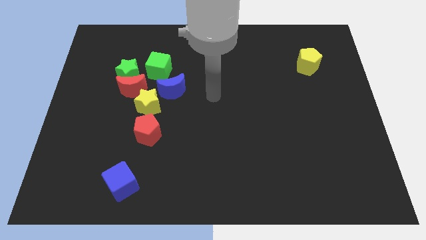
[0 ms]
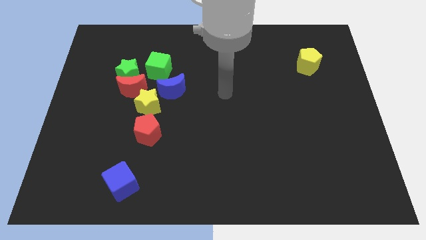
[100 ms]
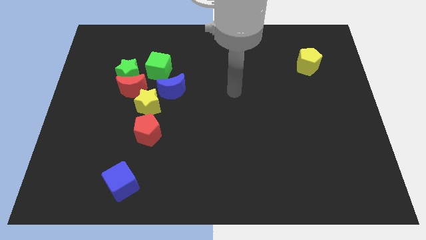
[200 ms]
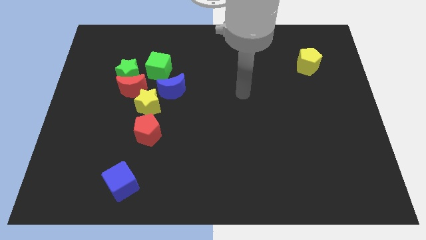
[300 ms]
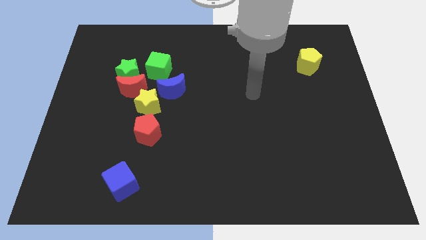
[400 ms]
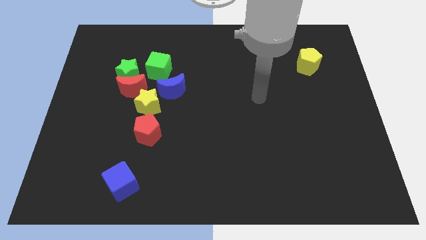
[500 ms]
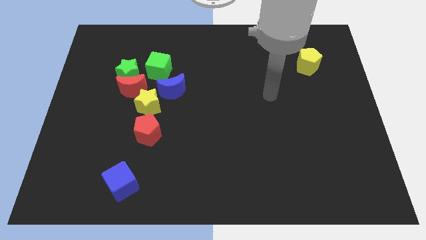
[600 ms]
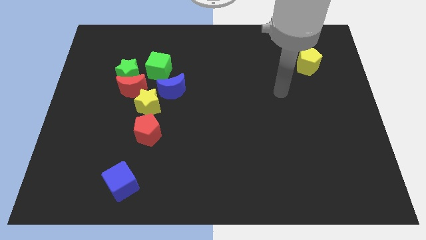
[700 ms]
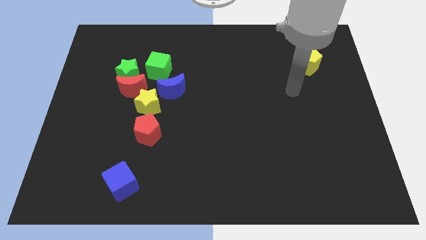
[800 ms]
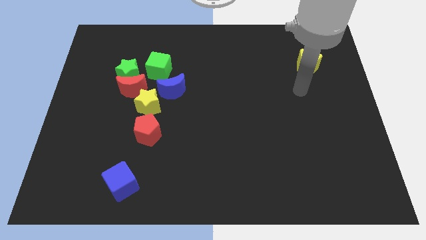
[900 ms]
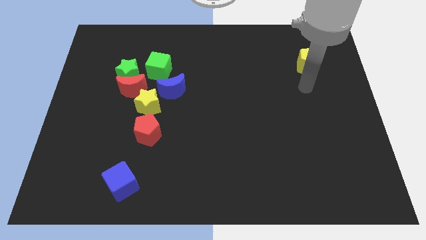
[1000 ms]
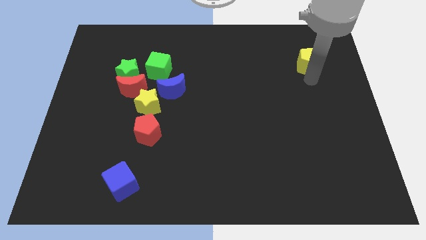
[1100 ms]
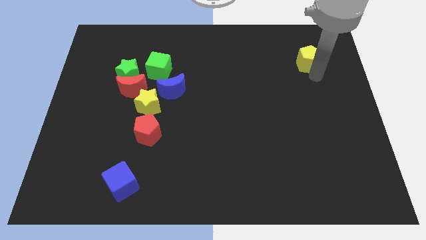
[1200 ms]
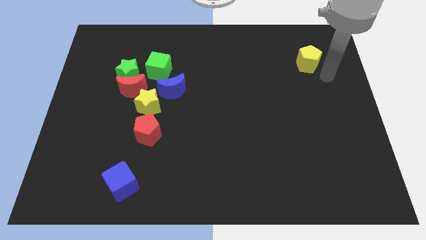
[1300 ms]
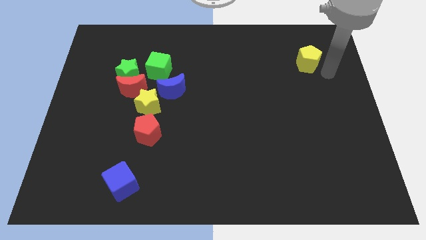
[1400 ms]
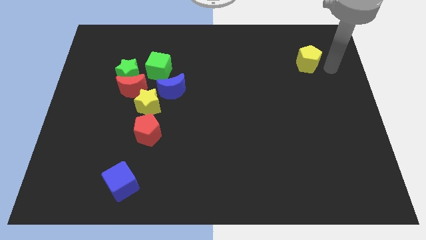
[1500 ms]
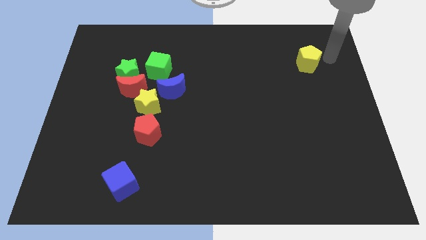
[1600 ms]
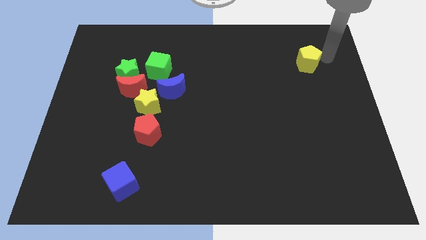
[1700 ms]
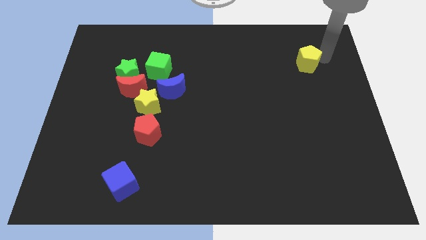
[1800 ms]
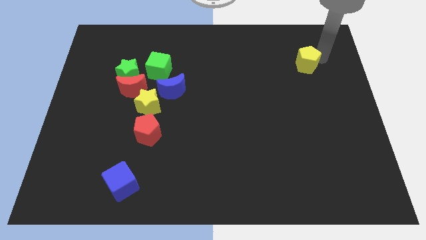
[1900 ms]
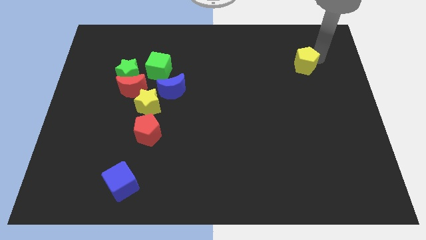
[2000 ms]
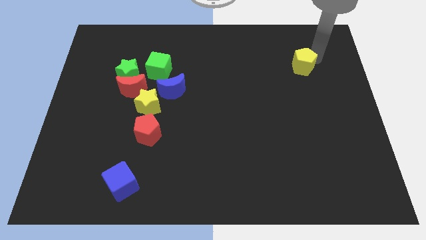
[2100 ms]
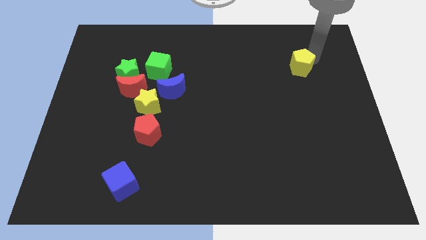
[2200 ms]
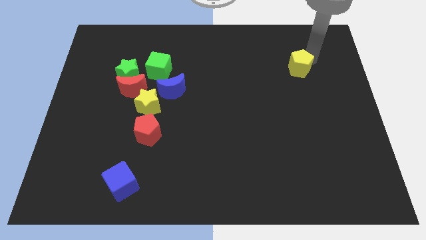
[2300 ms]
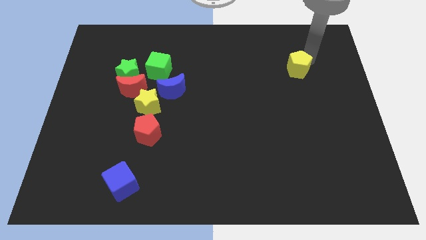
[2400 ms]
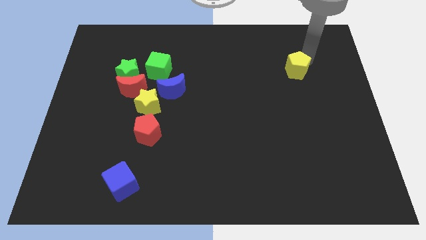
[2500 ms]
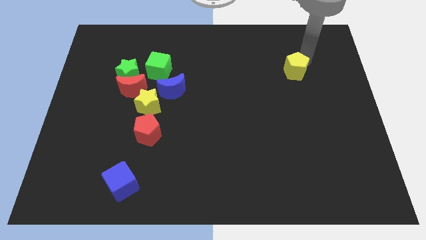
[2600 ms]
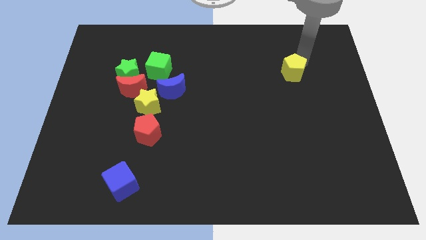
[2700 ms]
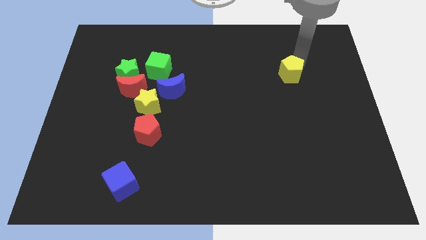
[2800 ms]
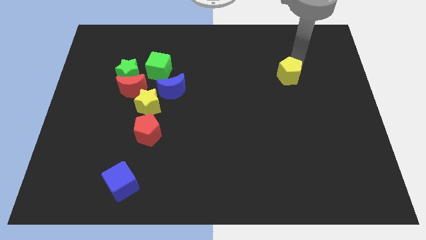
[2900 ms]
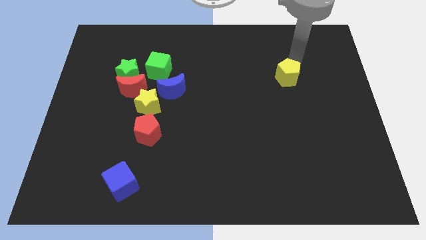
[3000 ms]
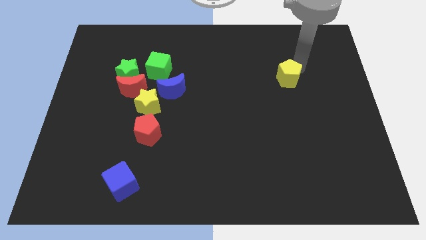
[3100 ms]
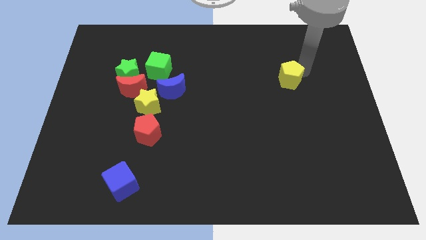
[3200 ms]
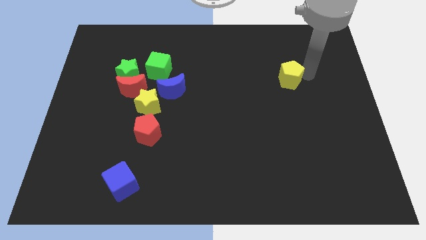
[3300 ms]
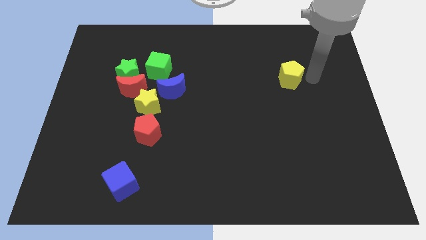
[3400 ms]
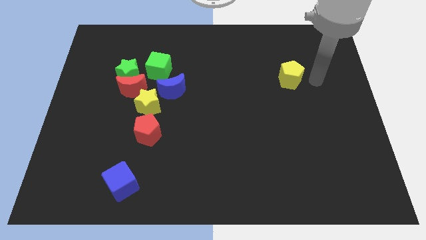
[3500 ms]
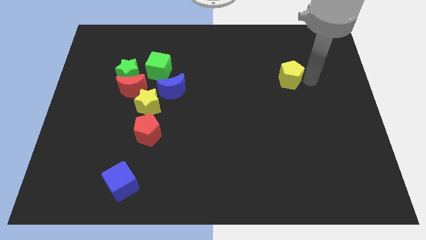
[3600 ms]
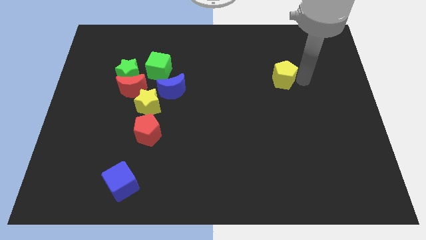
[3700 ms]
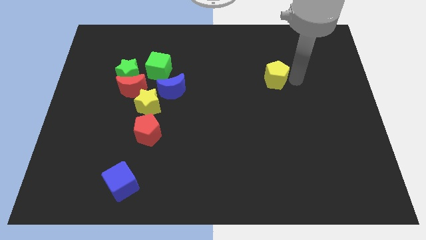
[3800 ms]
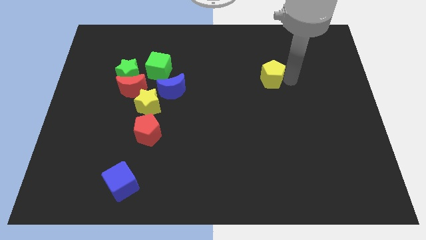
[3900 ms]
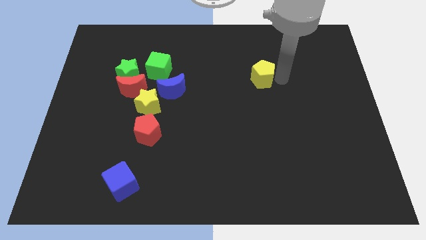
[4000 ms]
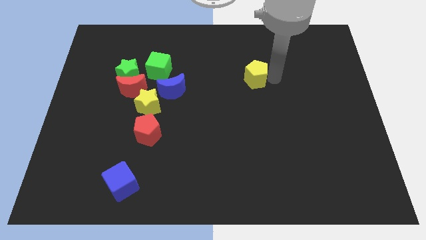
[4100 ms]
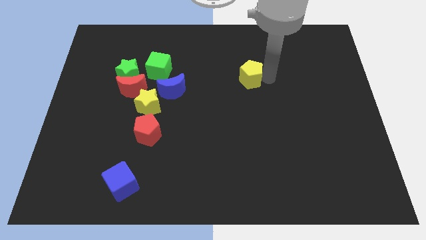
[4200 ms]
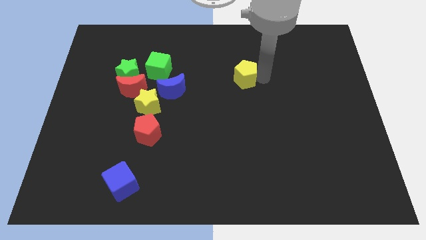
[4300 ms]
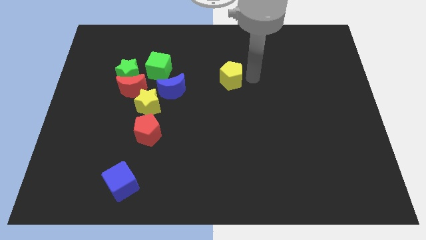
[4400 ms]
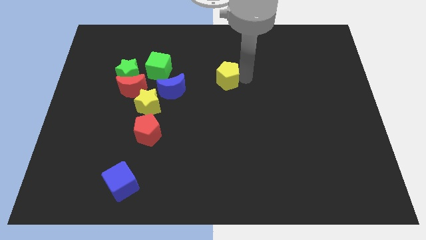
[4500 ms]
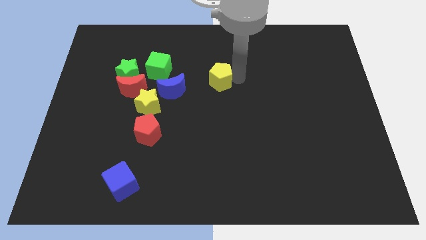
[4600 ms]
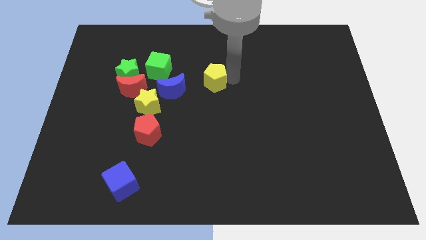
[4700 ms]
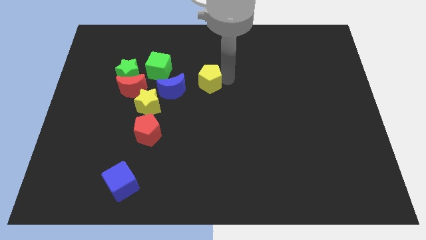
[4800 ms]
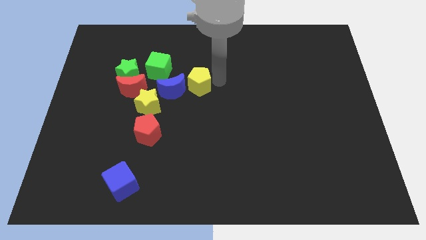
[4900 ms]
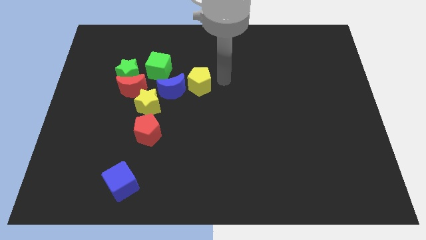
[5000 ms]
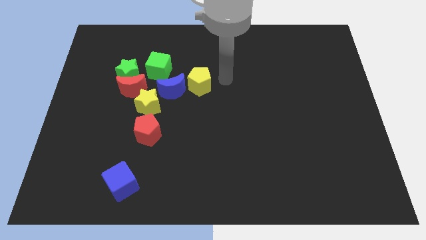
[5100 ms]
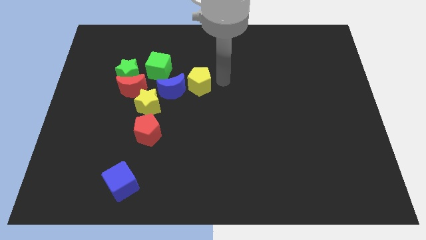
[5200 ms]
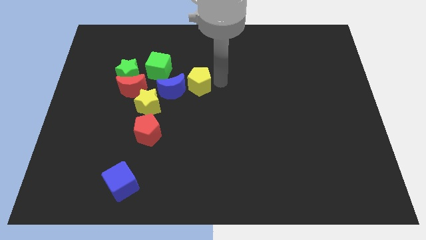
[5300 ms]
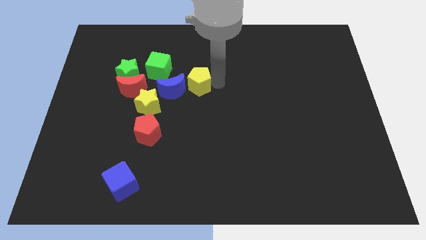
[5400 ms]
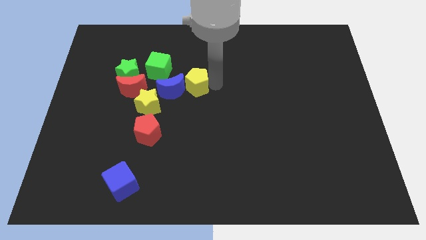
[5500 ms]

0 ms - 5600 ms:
move the yellow pentagon close to the blue moon

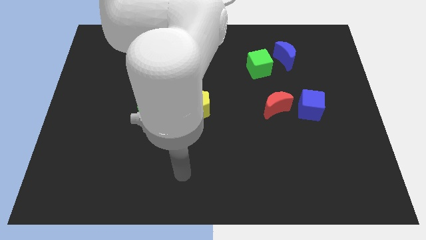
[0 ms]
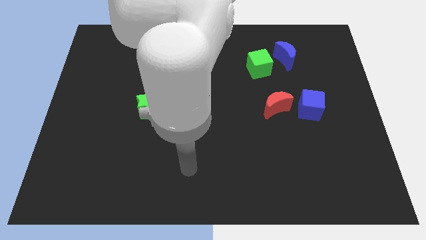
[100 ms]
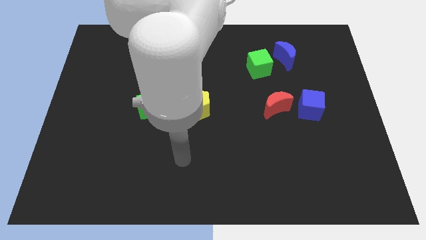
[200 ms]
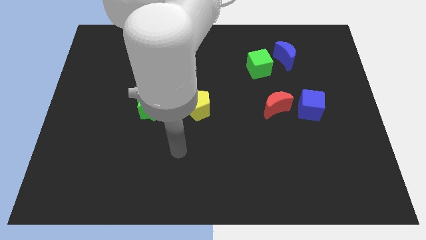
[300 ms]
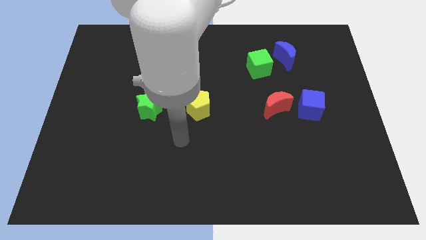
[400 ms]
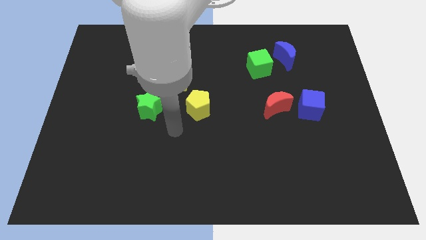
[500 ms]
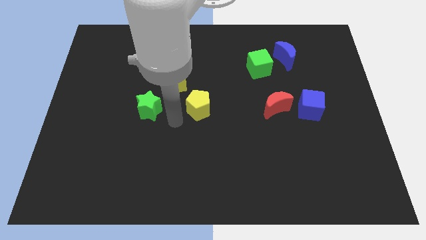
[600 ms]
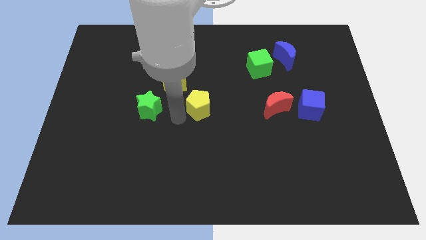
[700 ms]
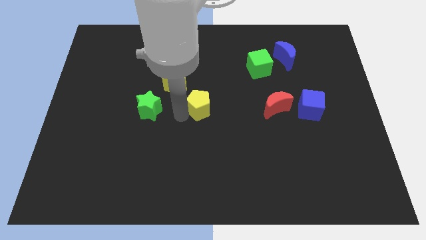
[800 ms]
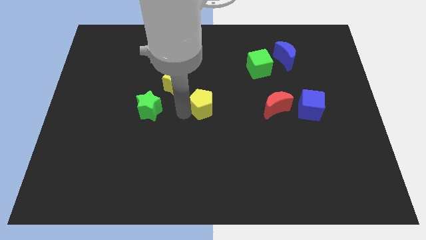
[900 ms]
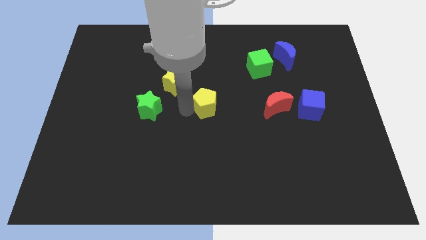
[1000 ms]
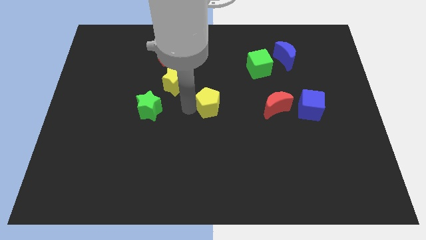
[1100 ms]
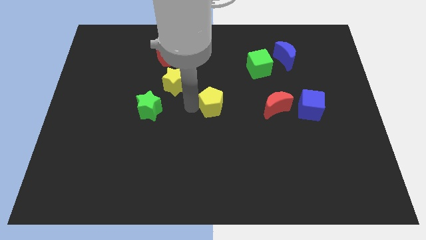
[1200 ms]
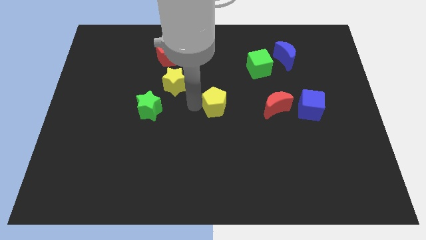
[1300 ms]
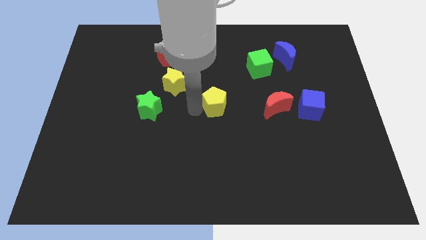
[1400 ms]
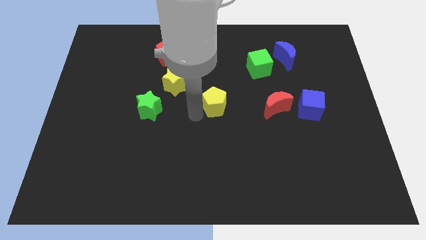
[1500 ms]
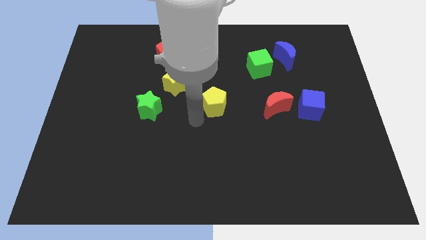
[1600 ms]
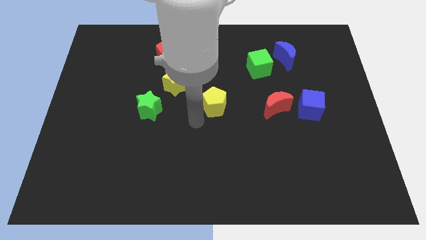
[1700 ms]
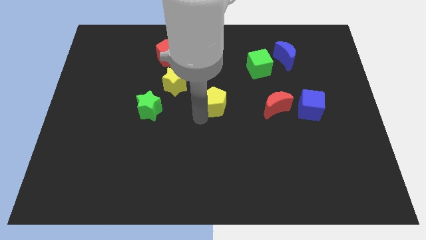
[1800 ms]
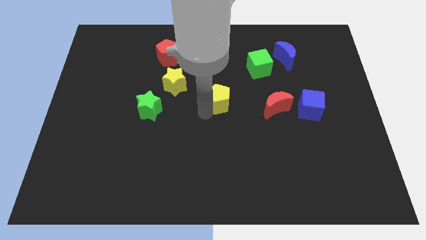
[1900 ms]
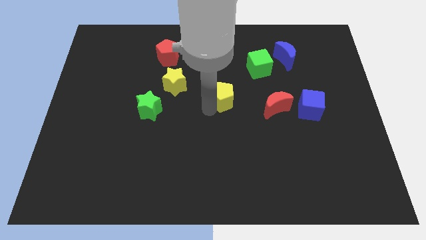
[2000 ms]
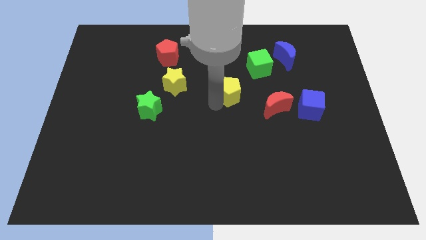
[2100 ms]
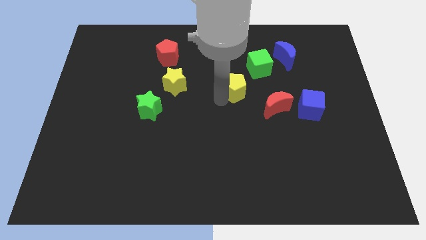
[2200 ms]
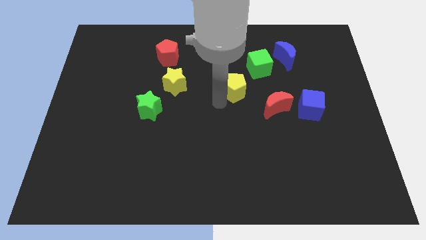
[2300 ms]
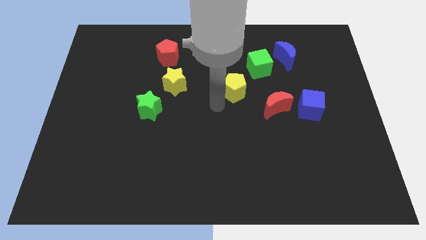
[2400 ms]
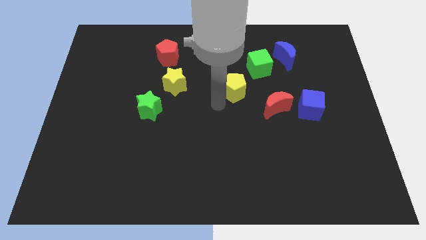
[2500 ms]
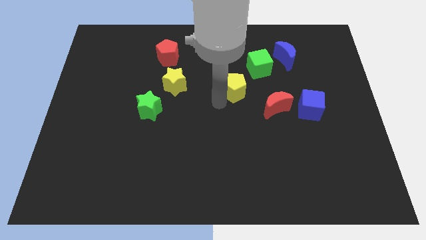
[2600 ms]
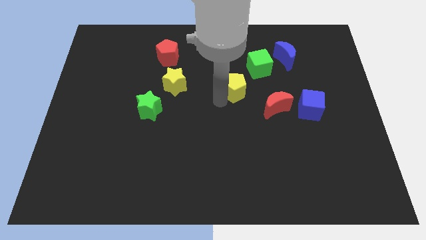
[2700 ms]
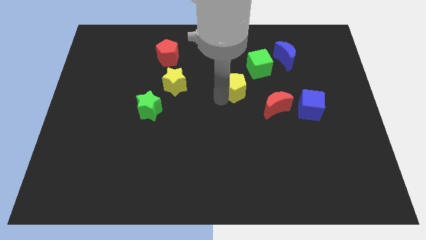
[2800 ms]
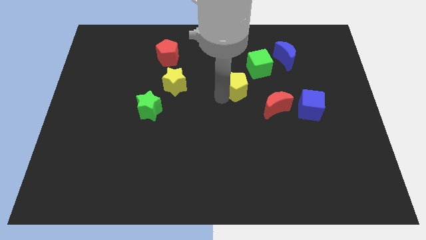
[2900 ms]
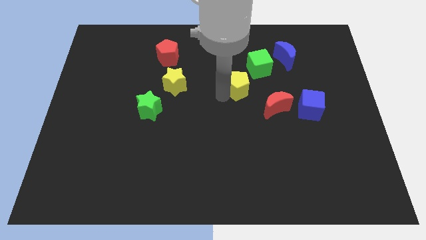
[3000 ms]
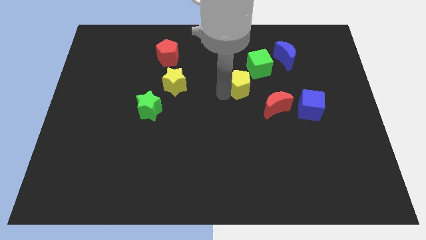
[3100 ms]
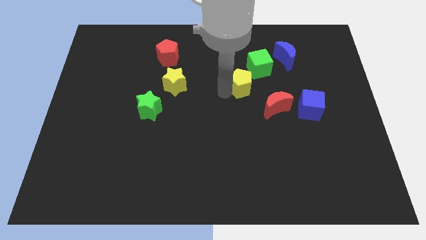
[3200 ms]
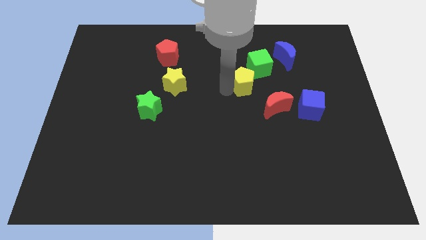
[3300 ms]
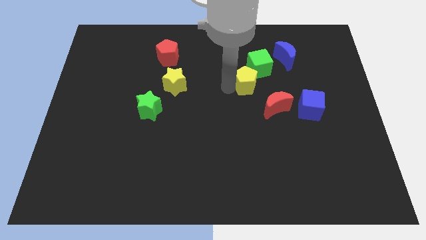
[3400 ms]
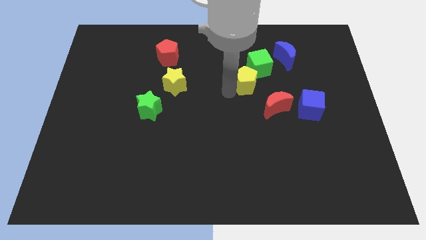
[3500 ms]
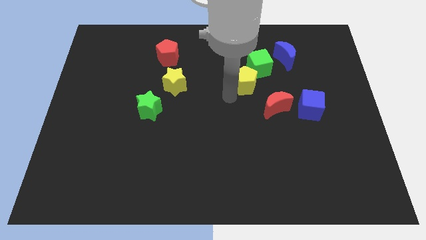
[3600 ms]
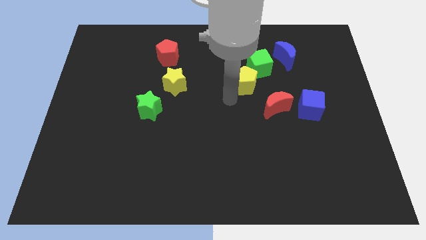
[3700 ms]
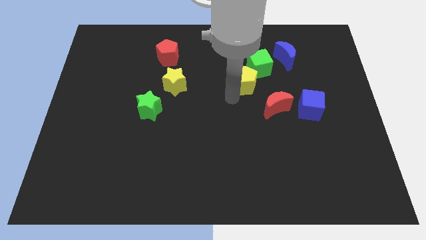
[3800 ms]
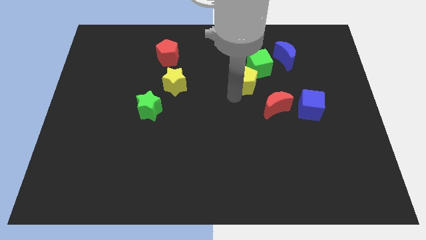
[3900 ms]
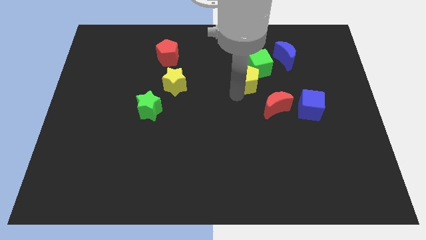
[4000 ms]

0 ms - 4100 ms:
push the yellow pentagon next to the green cube
